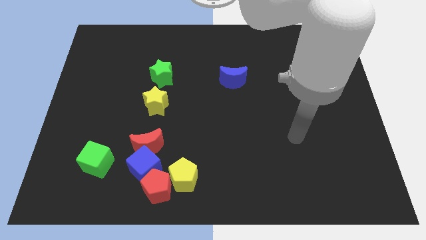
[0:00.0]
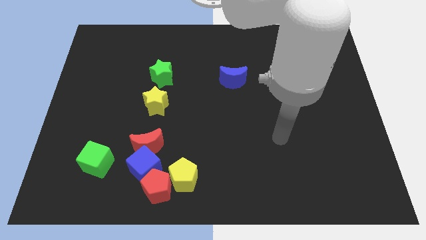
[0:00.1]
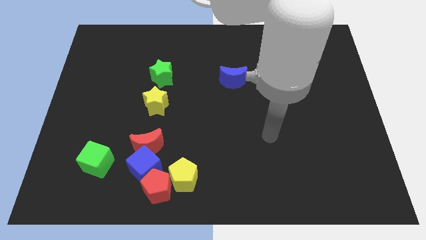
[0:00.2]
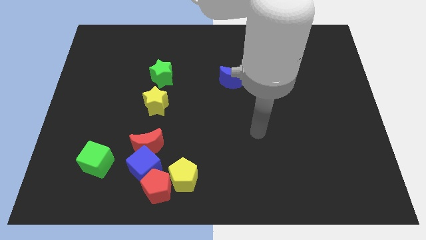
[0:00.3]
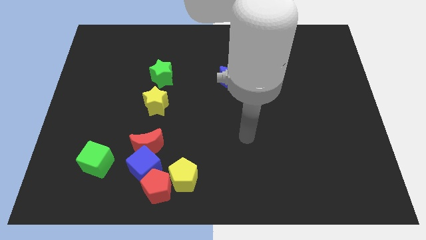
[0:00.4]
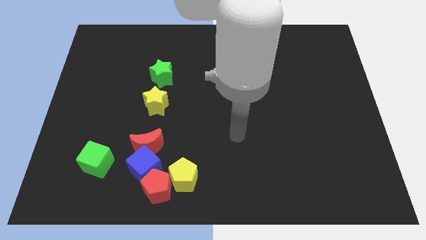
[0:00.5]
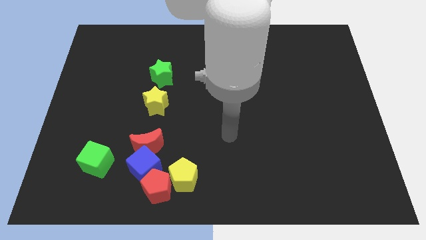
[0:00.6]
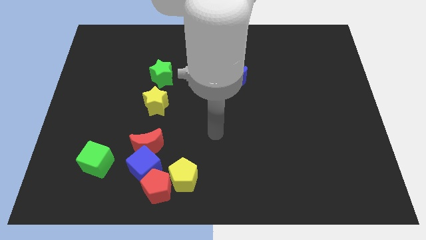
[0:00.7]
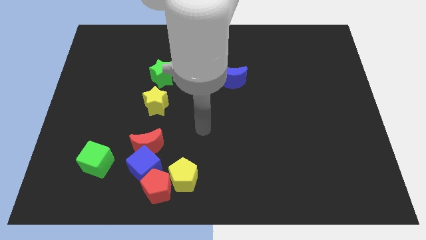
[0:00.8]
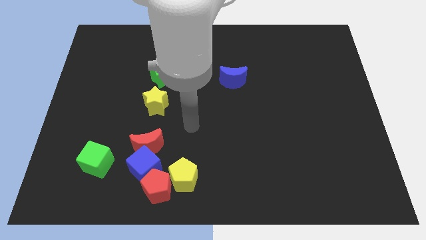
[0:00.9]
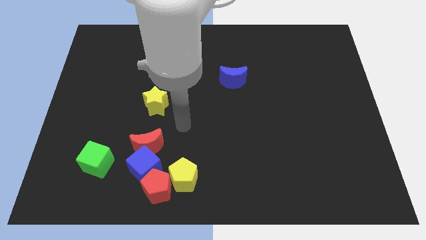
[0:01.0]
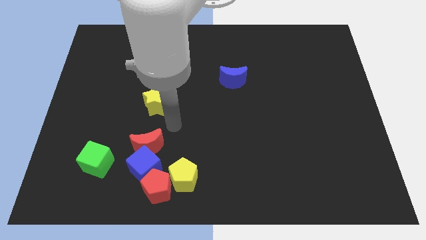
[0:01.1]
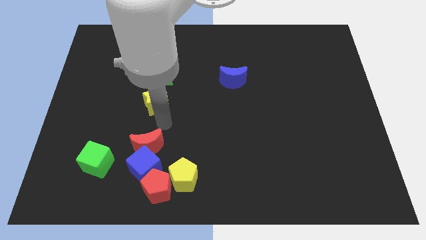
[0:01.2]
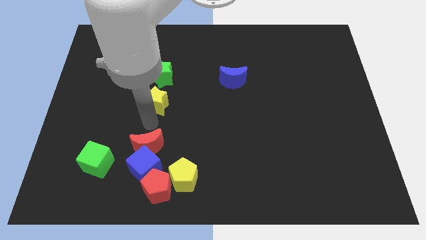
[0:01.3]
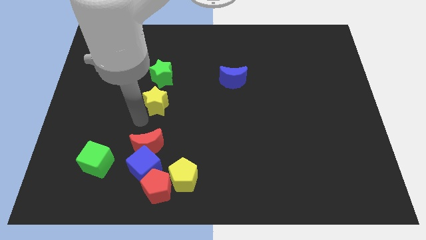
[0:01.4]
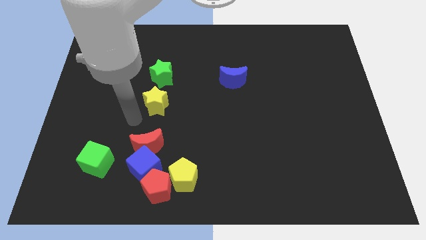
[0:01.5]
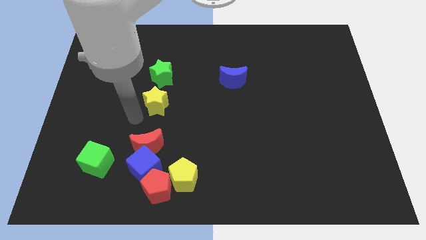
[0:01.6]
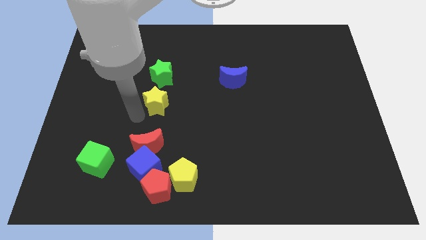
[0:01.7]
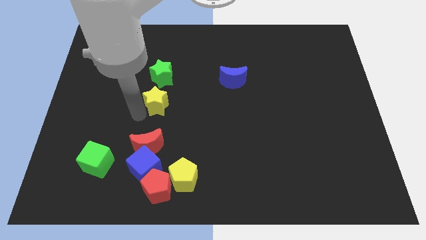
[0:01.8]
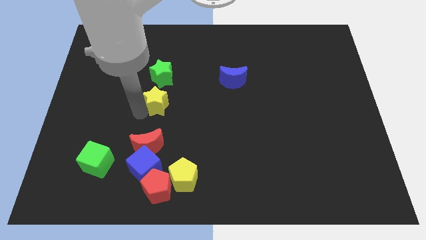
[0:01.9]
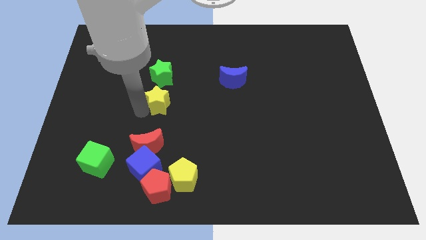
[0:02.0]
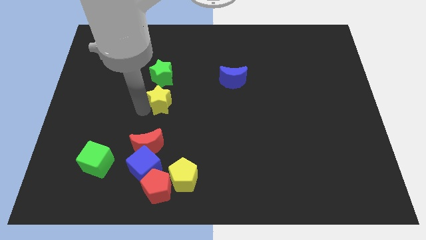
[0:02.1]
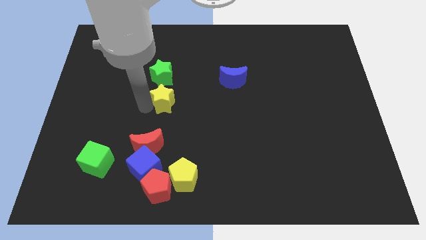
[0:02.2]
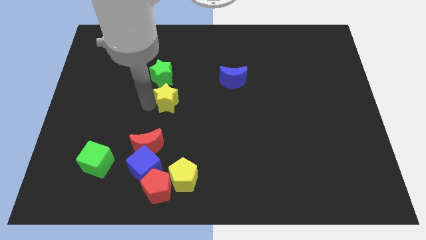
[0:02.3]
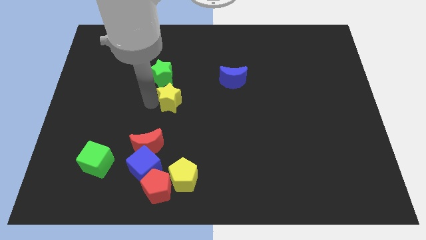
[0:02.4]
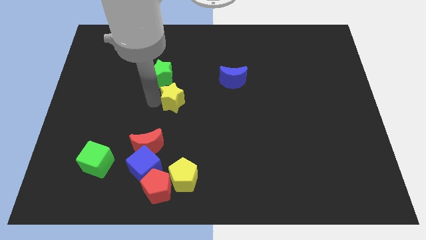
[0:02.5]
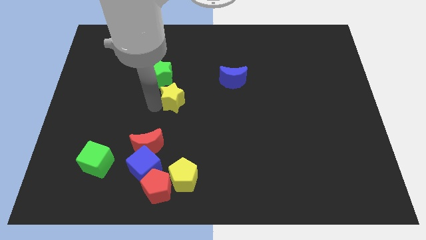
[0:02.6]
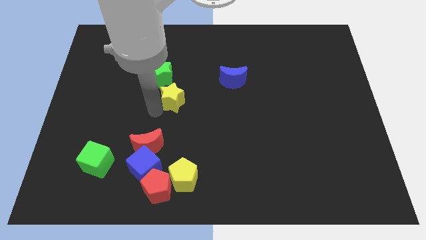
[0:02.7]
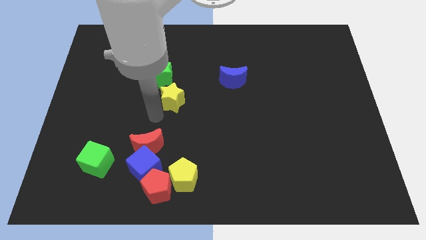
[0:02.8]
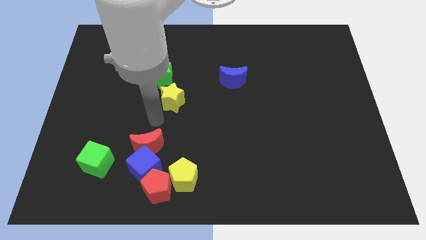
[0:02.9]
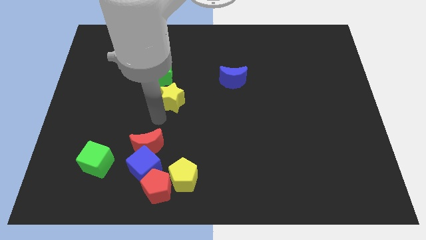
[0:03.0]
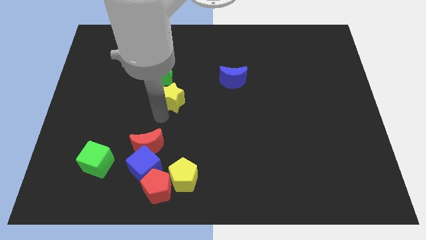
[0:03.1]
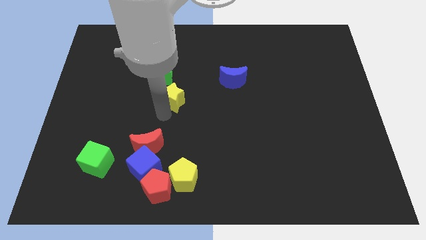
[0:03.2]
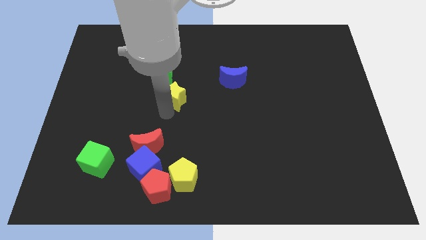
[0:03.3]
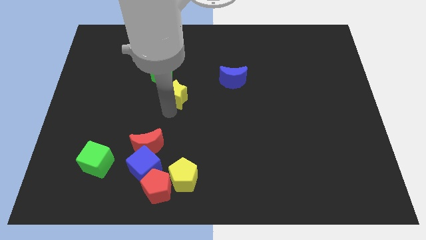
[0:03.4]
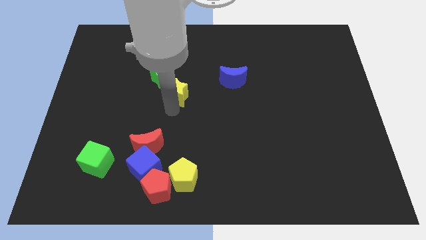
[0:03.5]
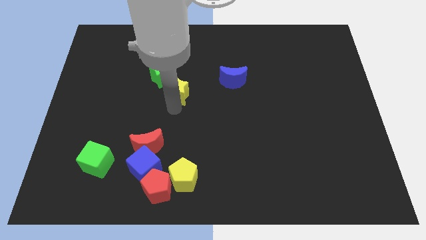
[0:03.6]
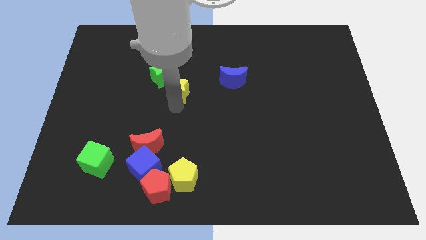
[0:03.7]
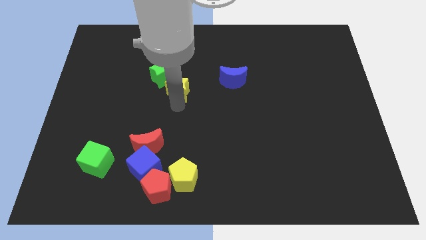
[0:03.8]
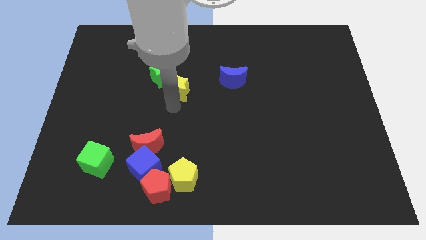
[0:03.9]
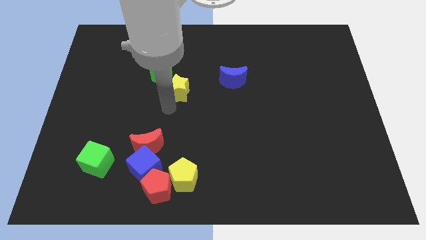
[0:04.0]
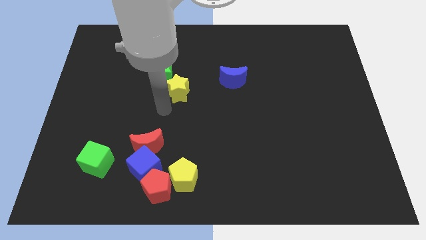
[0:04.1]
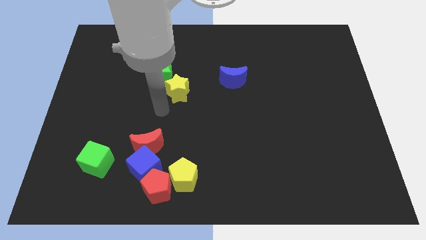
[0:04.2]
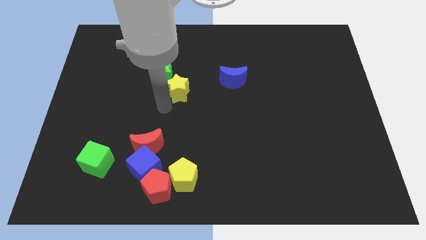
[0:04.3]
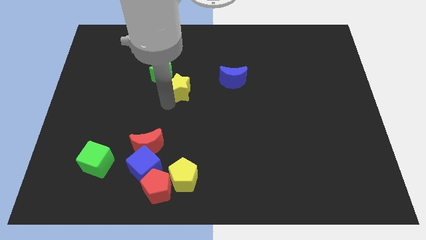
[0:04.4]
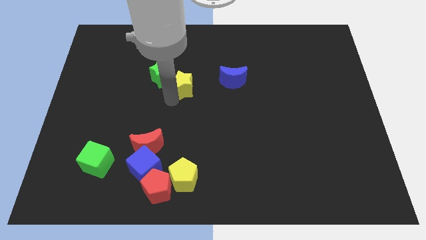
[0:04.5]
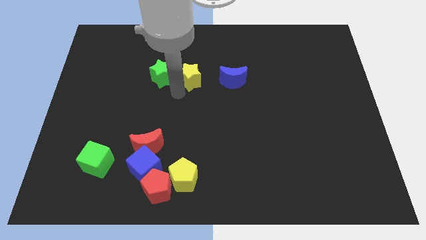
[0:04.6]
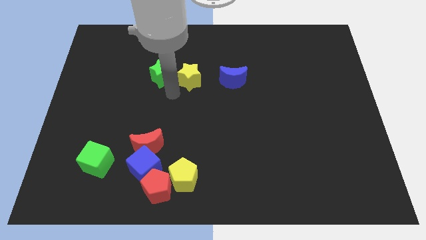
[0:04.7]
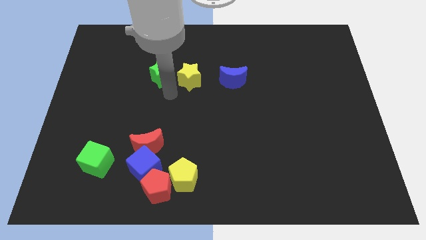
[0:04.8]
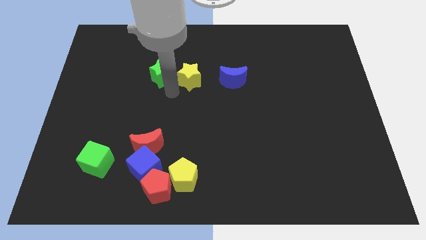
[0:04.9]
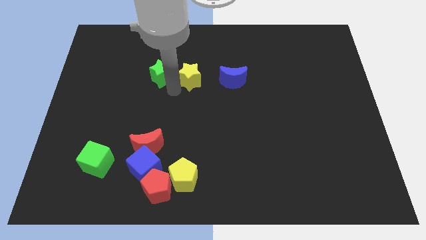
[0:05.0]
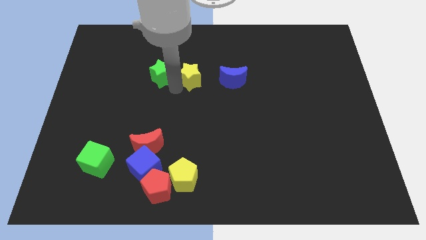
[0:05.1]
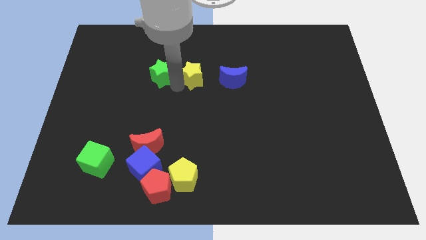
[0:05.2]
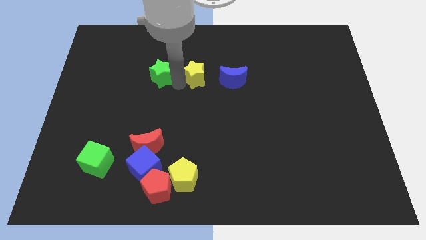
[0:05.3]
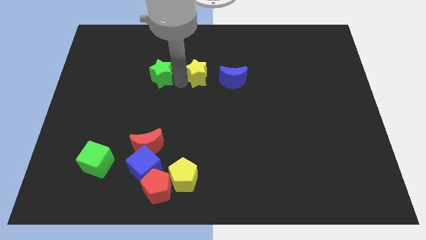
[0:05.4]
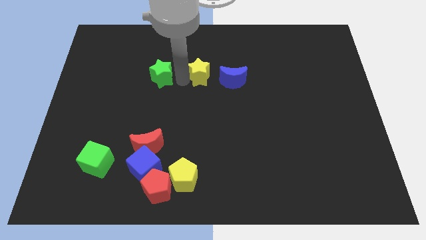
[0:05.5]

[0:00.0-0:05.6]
put the yellow star to the top left side of the blue moon

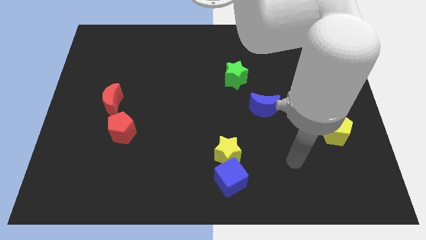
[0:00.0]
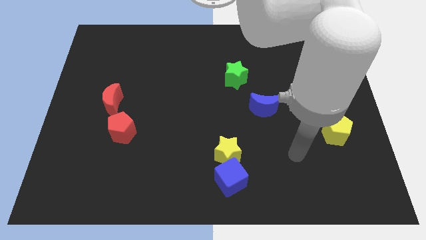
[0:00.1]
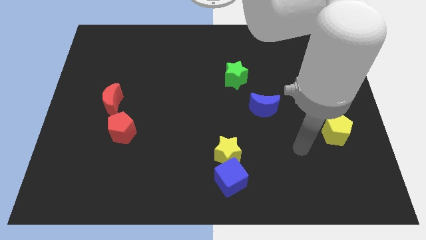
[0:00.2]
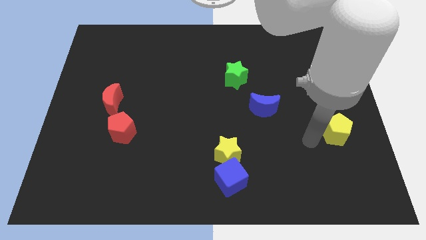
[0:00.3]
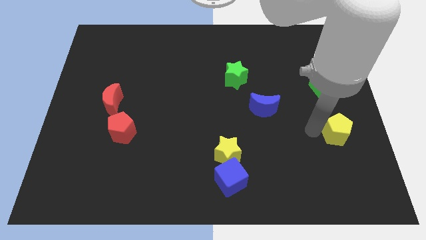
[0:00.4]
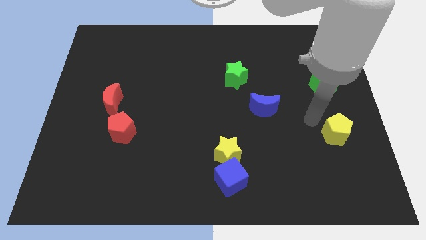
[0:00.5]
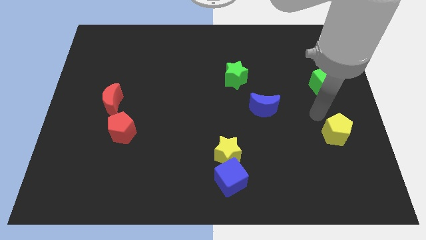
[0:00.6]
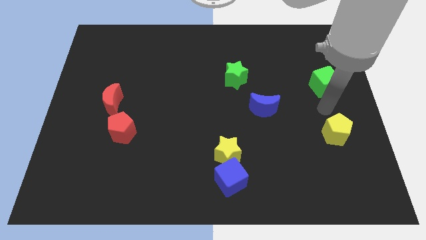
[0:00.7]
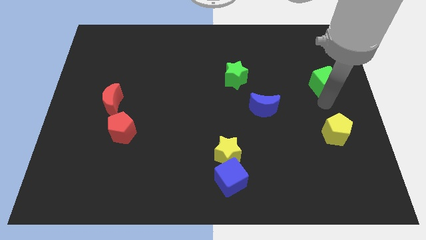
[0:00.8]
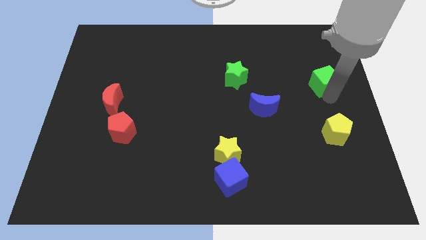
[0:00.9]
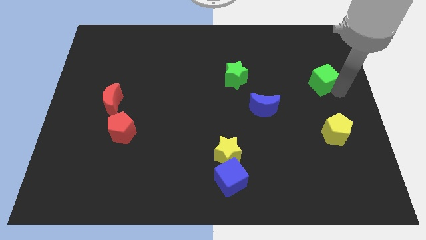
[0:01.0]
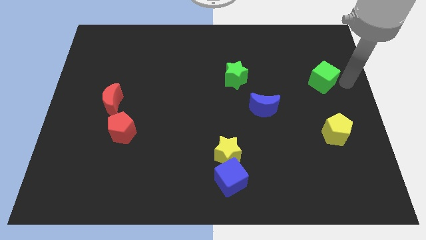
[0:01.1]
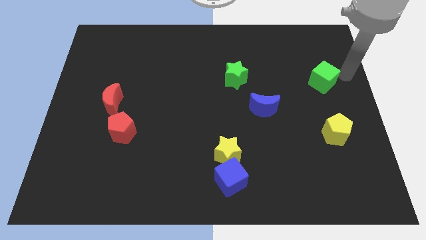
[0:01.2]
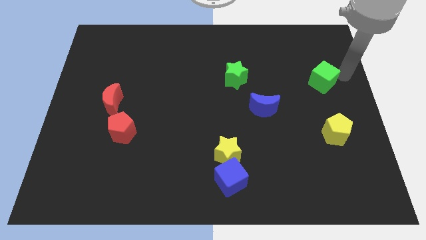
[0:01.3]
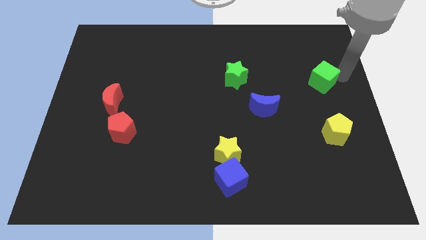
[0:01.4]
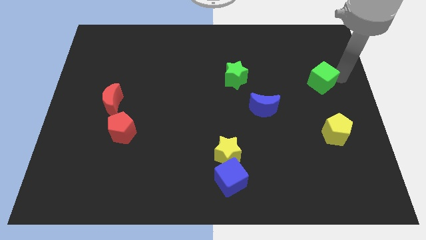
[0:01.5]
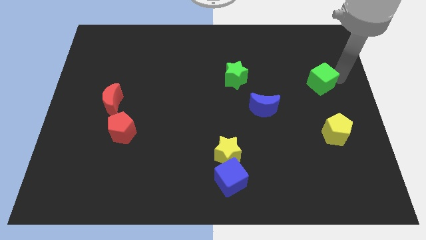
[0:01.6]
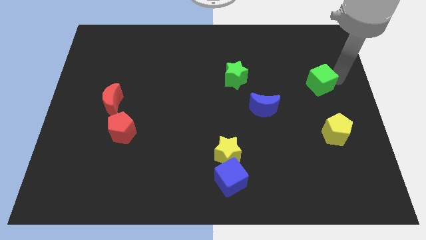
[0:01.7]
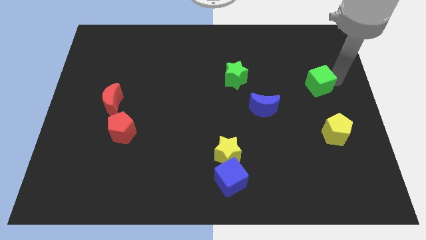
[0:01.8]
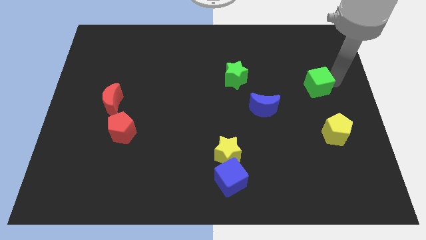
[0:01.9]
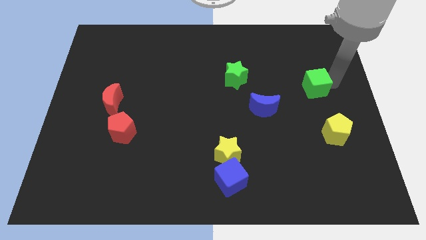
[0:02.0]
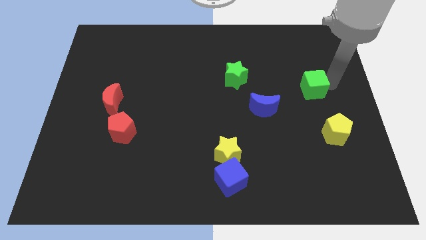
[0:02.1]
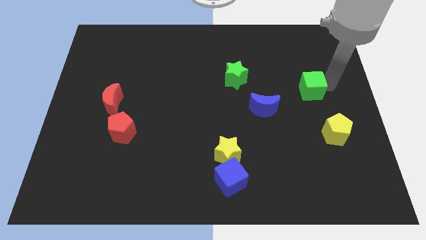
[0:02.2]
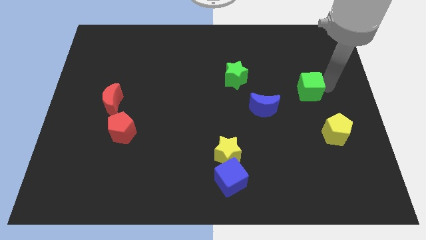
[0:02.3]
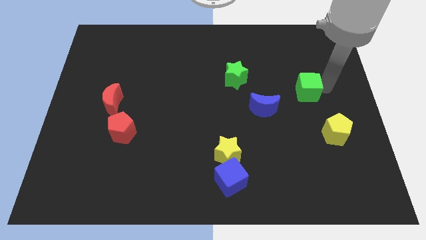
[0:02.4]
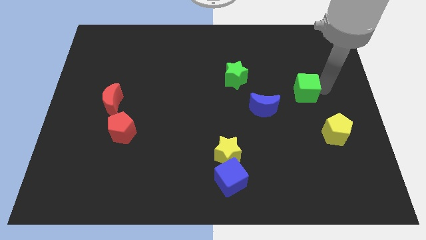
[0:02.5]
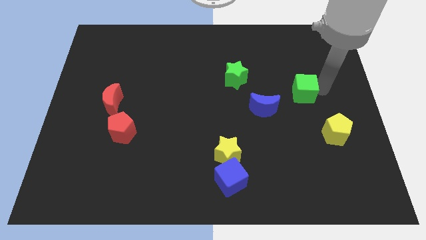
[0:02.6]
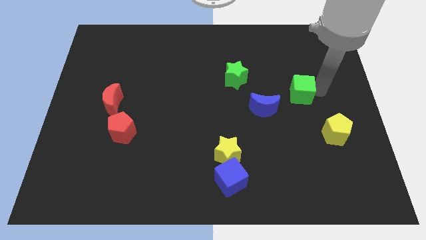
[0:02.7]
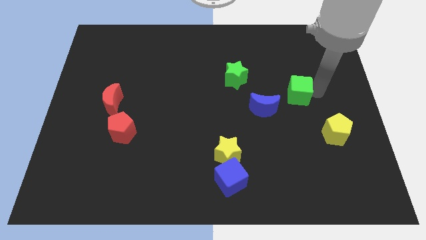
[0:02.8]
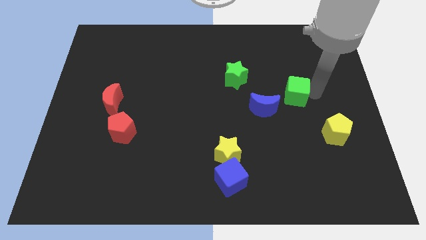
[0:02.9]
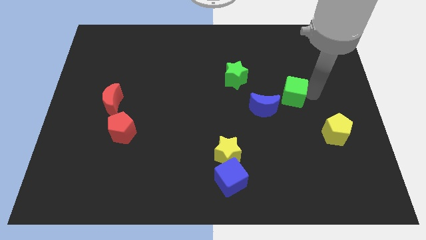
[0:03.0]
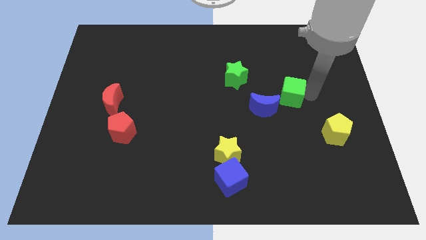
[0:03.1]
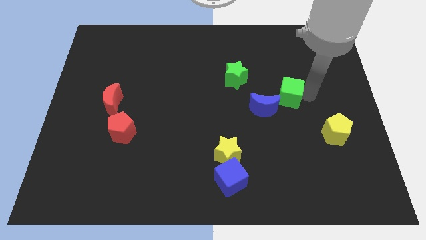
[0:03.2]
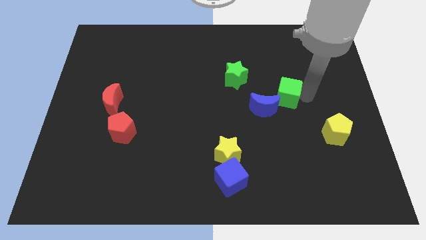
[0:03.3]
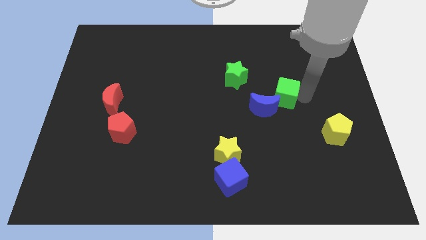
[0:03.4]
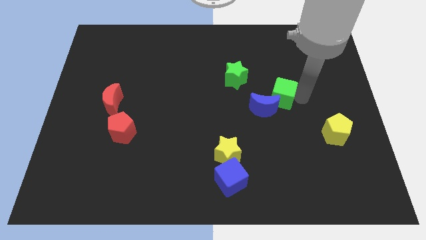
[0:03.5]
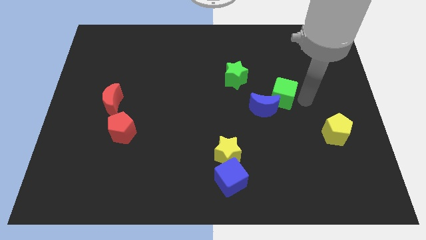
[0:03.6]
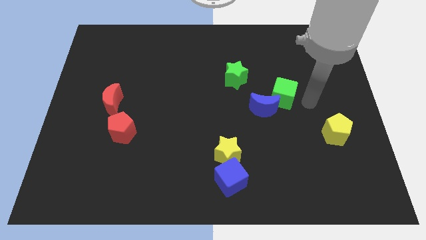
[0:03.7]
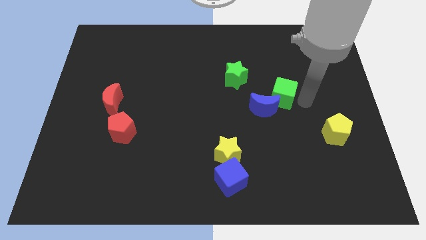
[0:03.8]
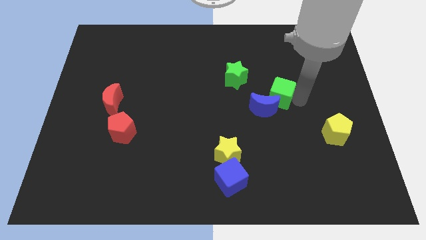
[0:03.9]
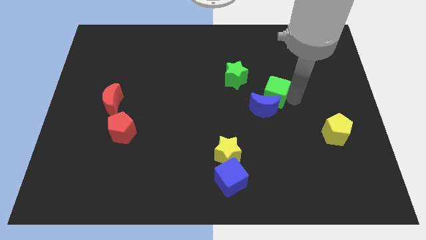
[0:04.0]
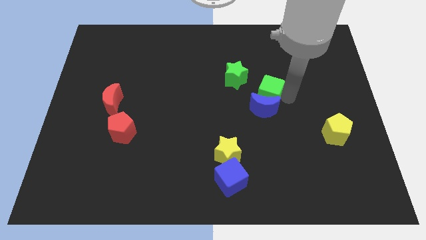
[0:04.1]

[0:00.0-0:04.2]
push the green cube diagonally up and to the left of the blue moon
